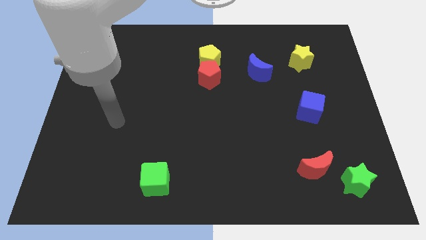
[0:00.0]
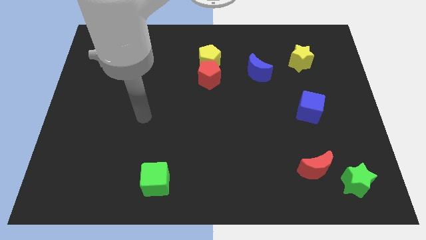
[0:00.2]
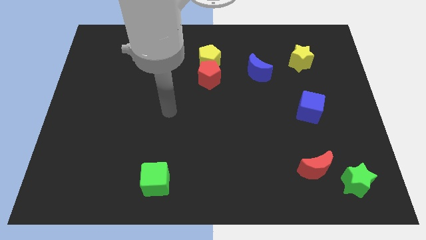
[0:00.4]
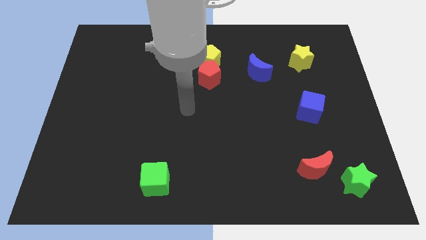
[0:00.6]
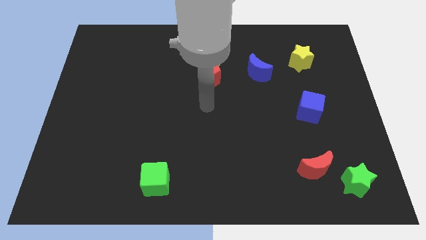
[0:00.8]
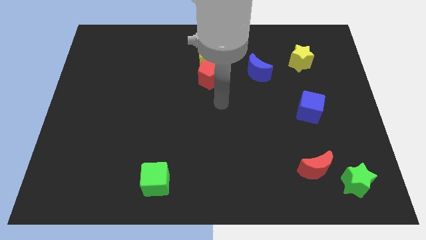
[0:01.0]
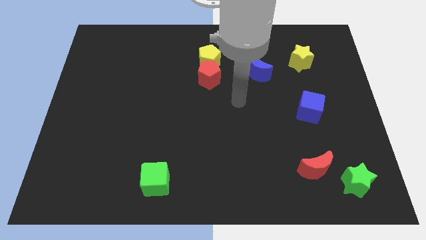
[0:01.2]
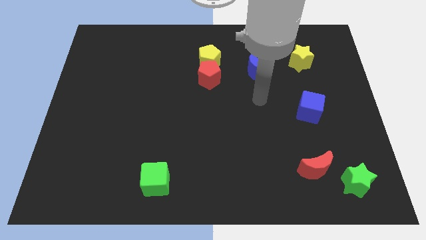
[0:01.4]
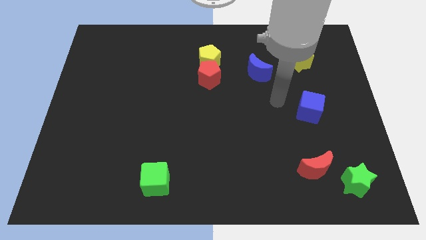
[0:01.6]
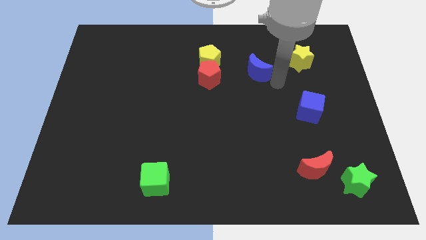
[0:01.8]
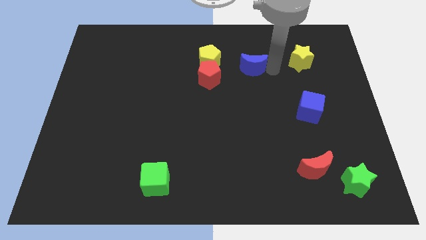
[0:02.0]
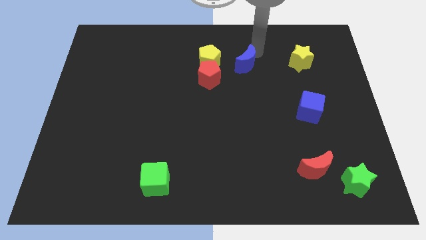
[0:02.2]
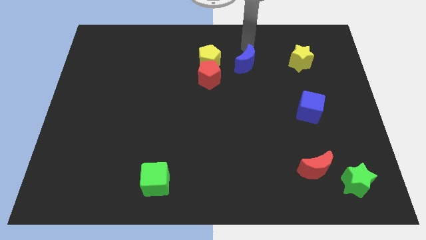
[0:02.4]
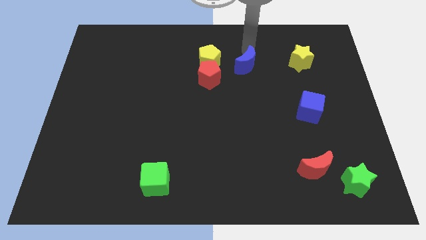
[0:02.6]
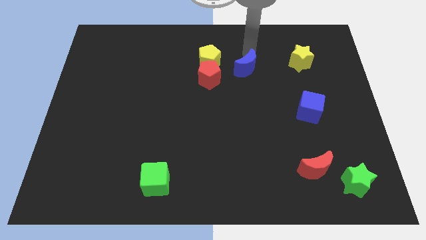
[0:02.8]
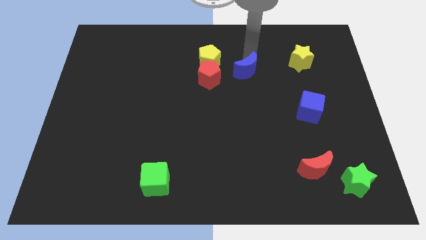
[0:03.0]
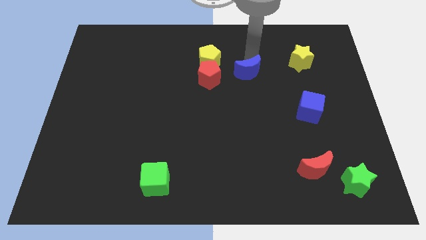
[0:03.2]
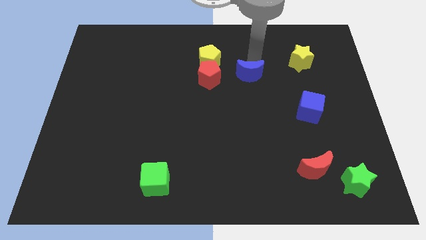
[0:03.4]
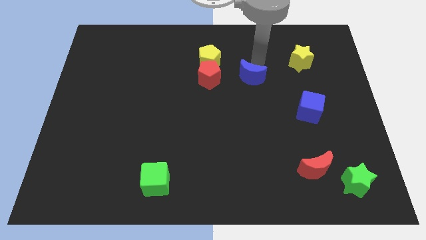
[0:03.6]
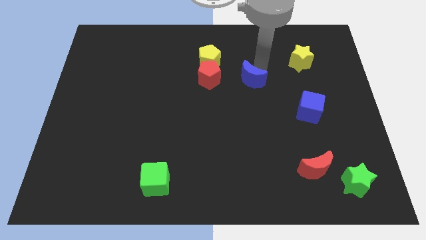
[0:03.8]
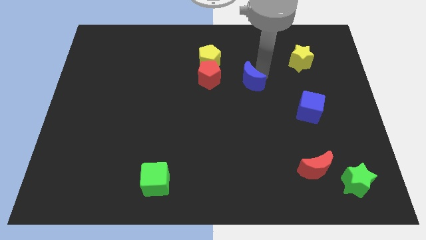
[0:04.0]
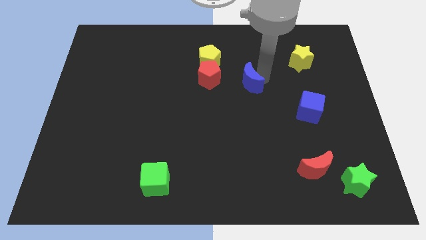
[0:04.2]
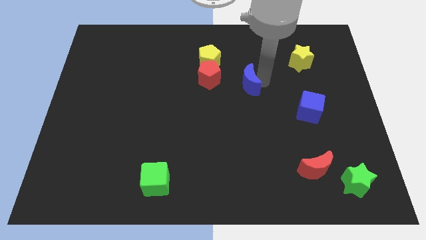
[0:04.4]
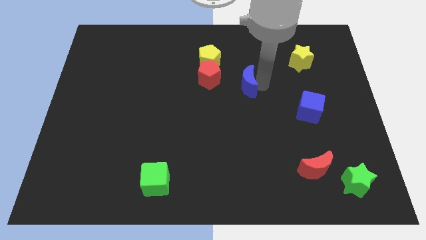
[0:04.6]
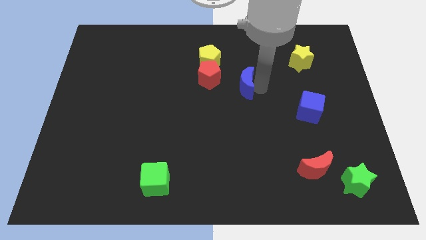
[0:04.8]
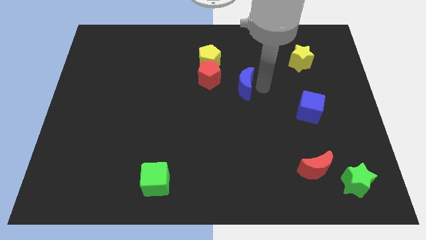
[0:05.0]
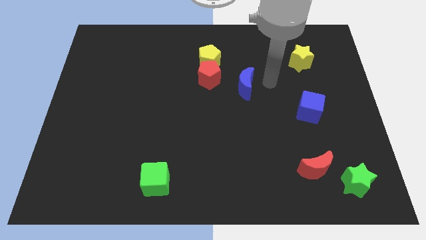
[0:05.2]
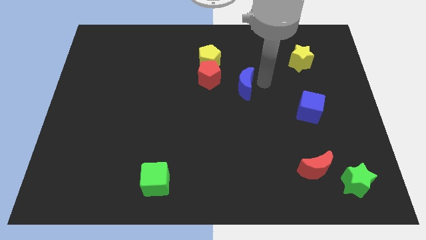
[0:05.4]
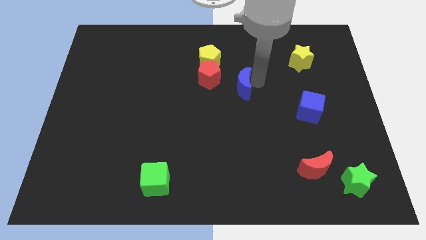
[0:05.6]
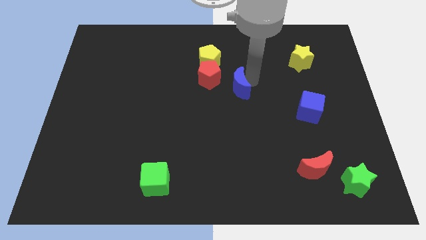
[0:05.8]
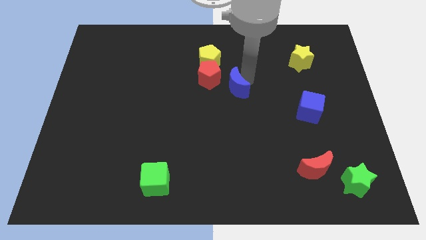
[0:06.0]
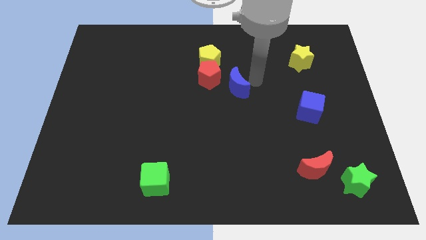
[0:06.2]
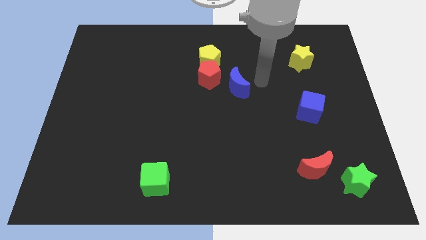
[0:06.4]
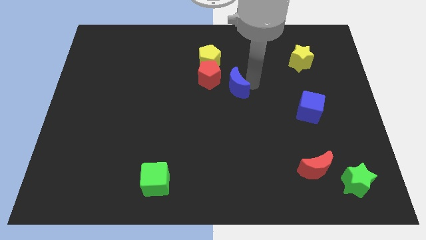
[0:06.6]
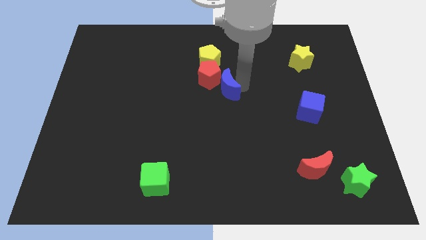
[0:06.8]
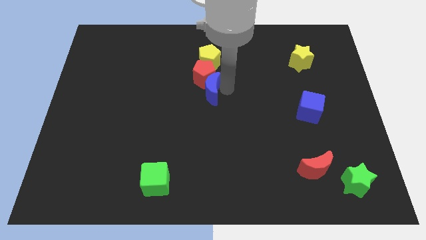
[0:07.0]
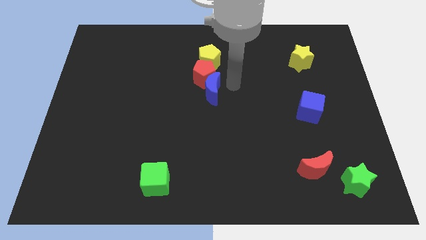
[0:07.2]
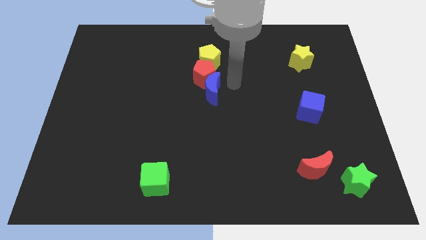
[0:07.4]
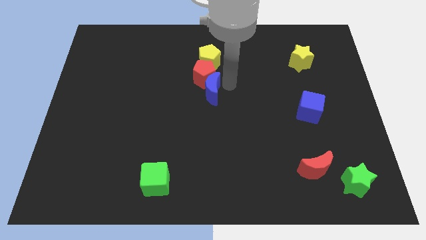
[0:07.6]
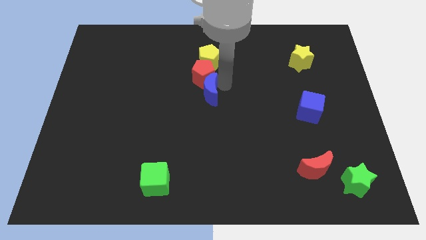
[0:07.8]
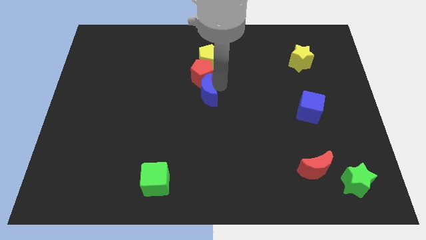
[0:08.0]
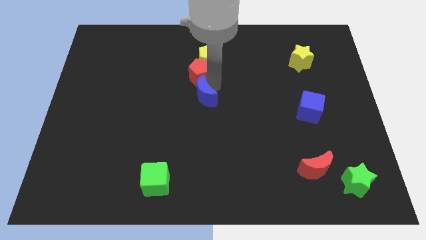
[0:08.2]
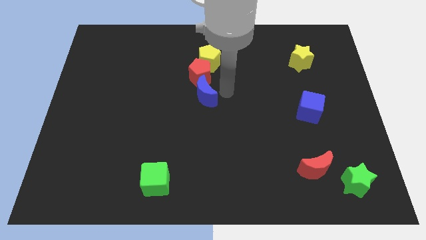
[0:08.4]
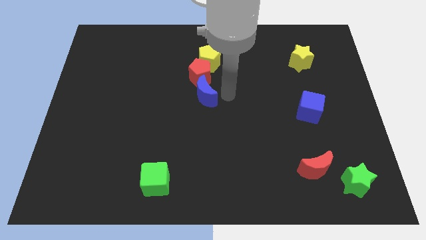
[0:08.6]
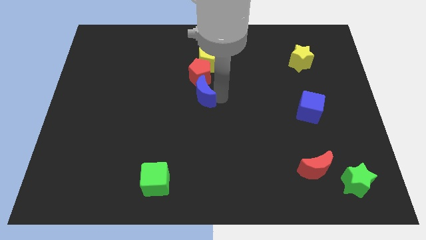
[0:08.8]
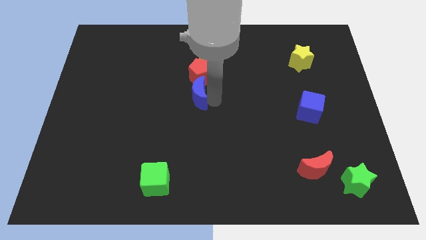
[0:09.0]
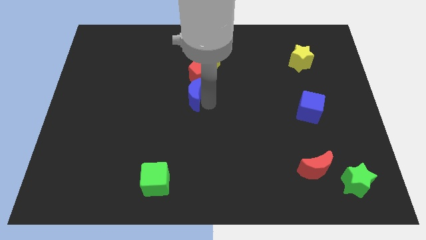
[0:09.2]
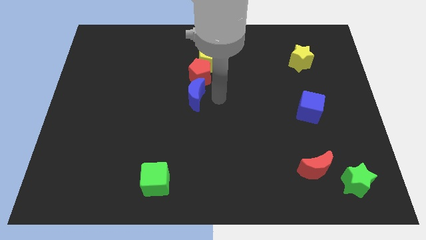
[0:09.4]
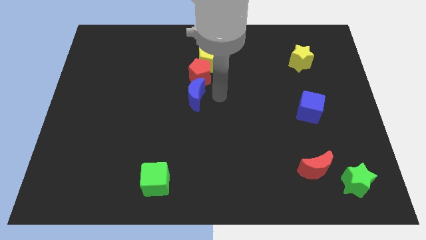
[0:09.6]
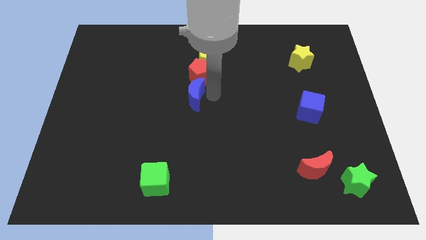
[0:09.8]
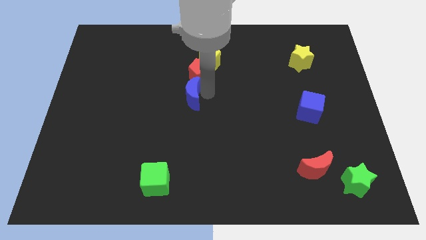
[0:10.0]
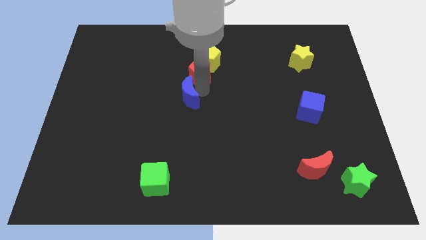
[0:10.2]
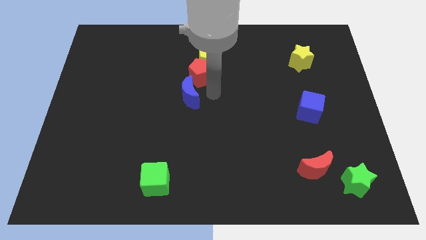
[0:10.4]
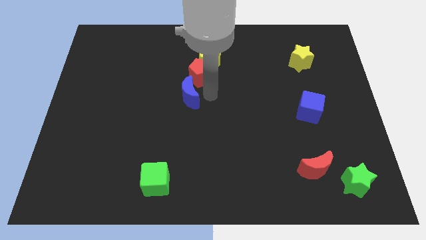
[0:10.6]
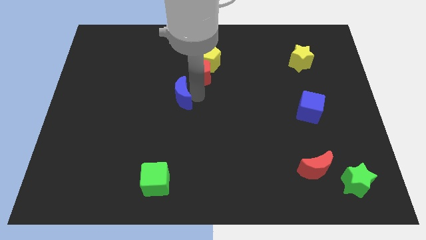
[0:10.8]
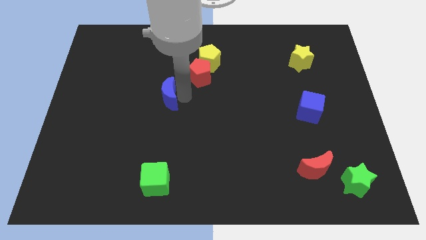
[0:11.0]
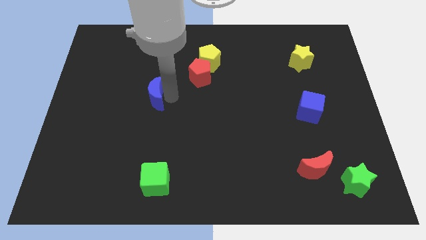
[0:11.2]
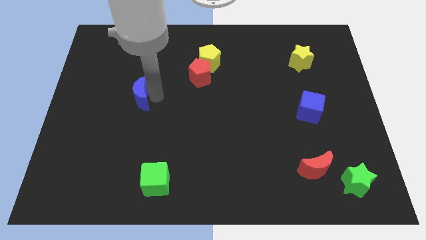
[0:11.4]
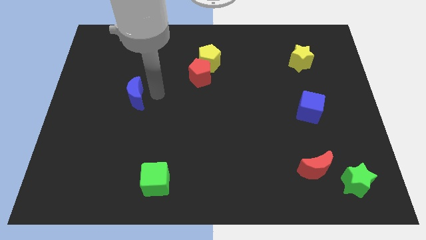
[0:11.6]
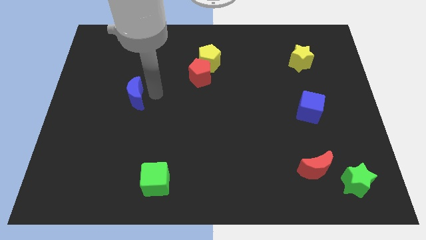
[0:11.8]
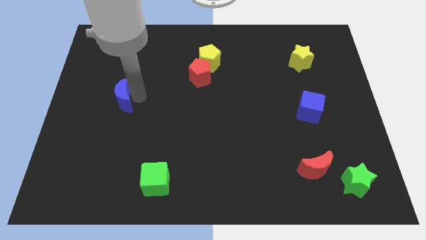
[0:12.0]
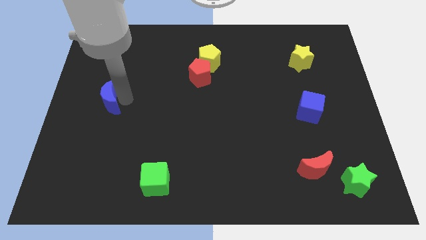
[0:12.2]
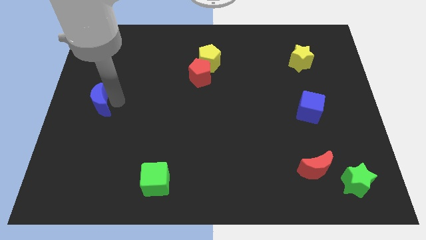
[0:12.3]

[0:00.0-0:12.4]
move the blue moon to the left side of the board
